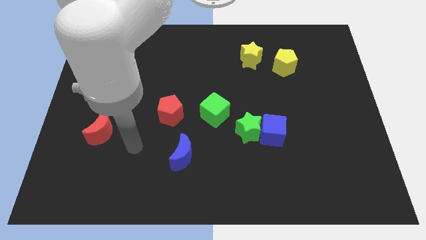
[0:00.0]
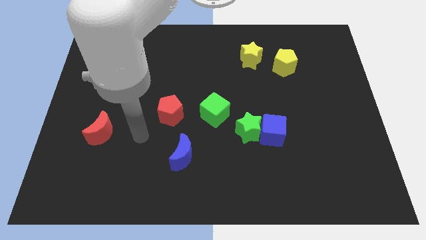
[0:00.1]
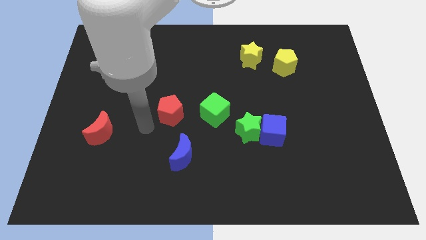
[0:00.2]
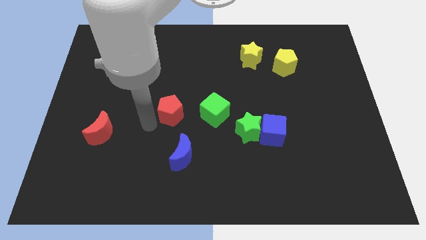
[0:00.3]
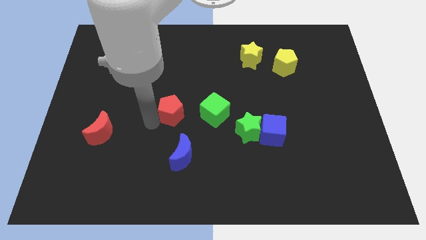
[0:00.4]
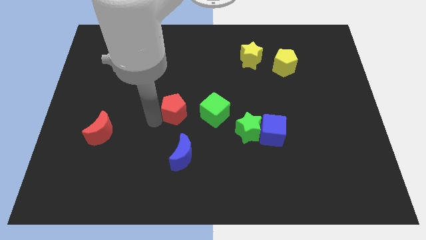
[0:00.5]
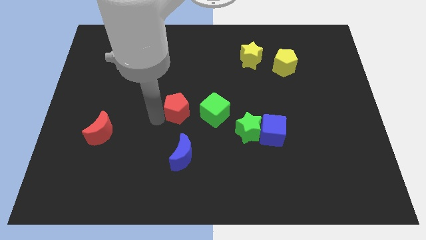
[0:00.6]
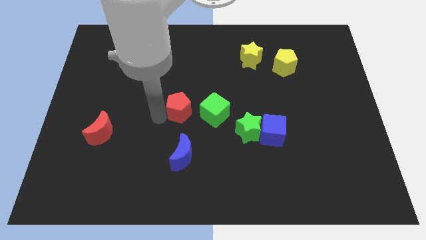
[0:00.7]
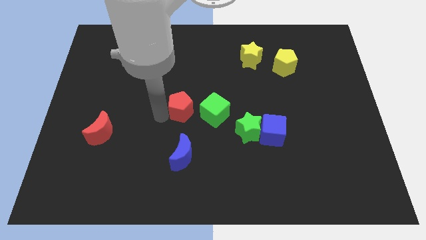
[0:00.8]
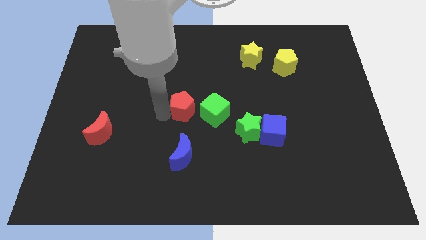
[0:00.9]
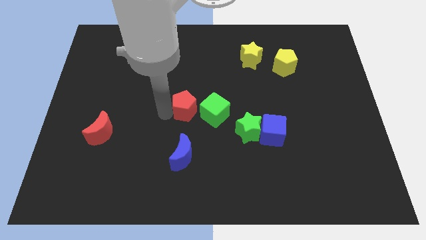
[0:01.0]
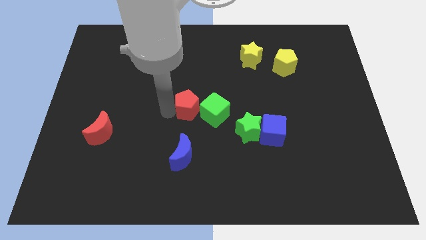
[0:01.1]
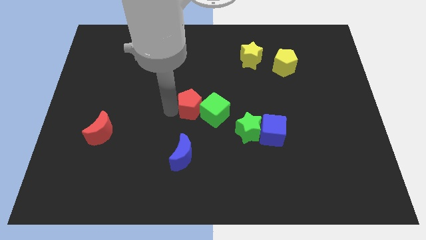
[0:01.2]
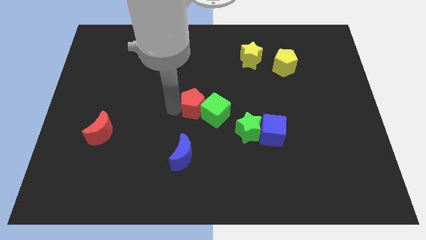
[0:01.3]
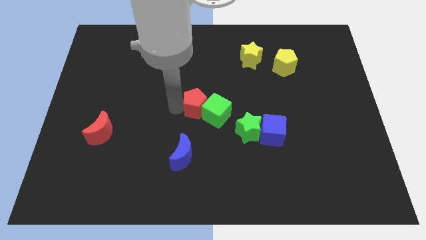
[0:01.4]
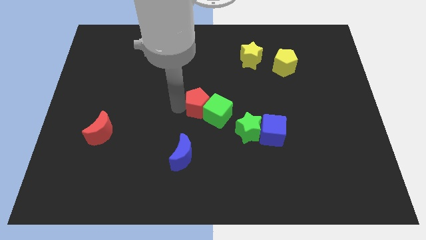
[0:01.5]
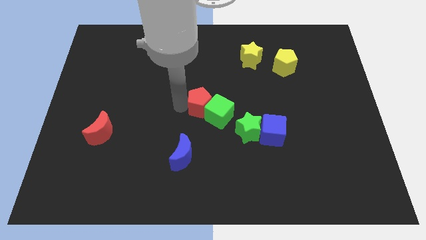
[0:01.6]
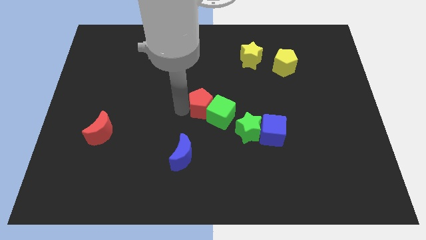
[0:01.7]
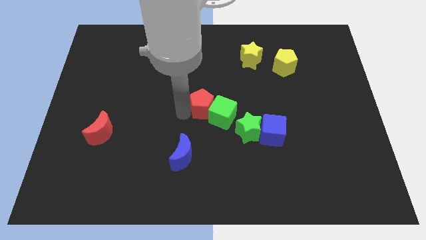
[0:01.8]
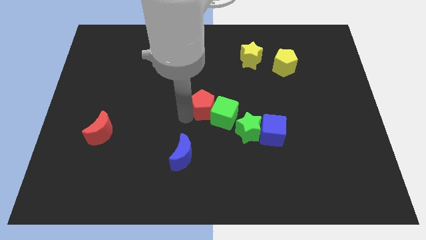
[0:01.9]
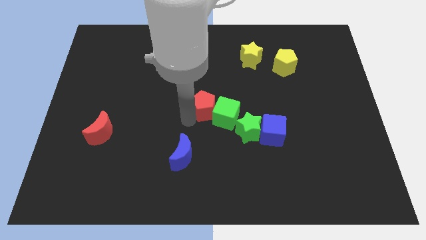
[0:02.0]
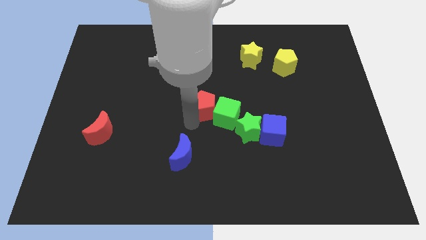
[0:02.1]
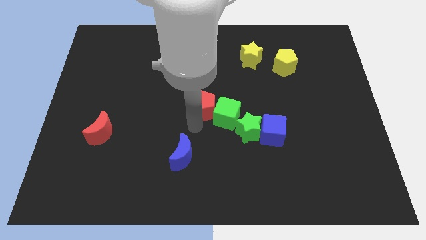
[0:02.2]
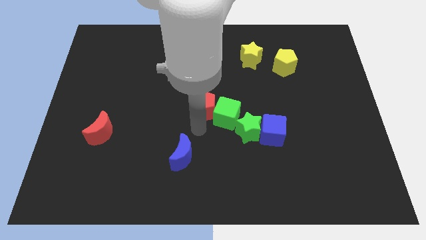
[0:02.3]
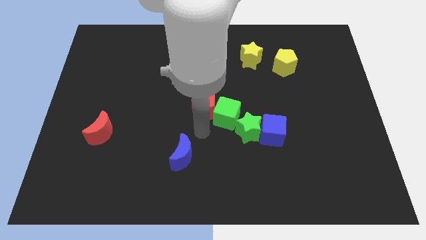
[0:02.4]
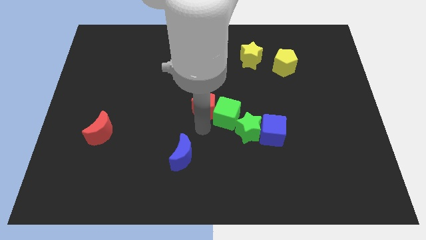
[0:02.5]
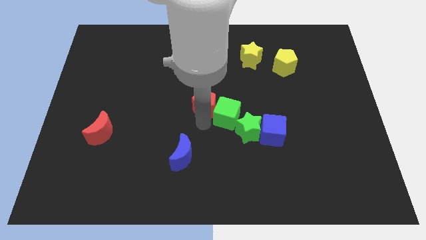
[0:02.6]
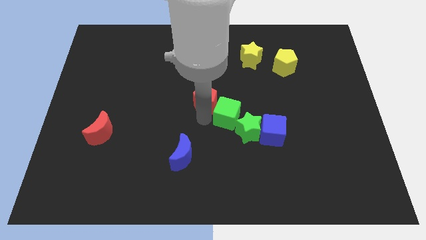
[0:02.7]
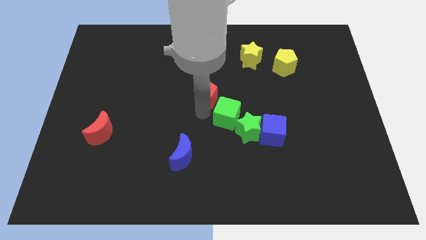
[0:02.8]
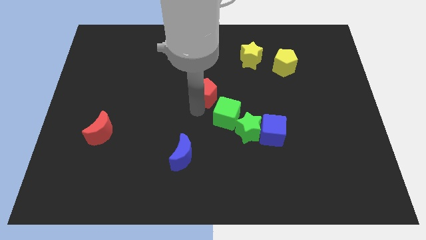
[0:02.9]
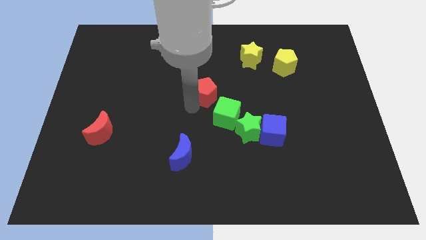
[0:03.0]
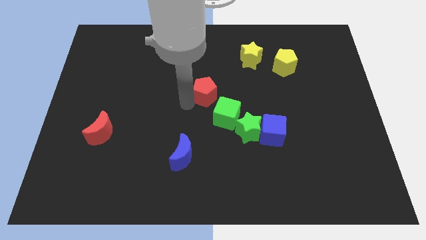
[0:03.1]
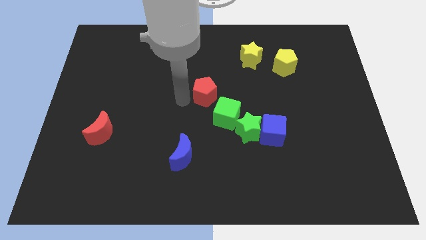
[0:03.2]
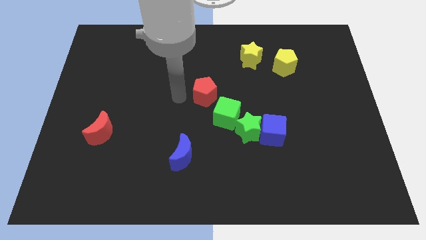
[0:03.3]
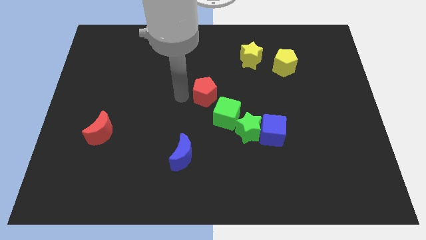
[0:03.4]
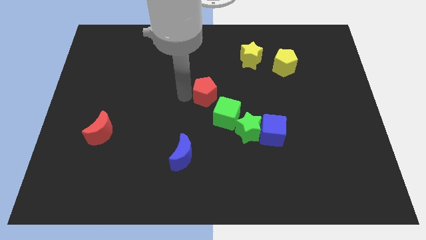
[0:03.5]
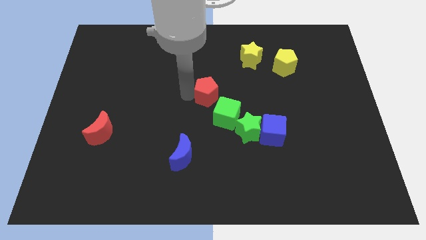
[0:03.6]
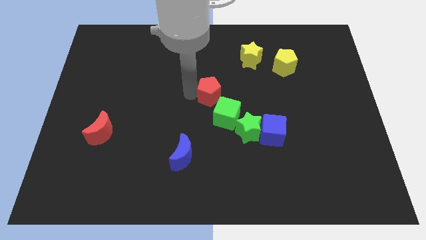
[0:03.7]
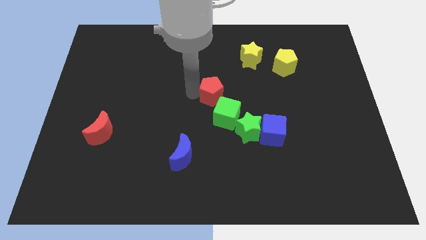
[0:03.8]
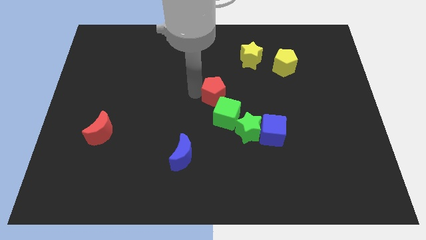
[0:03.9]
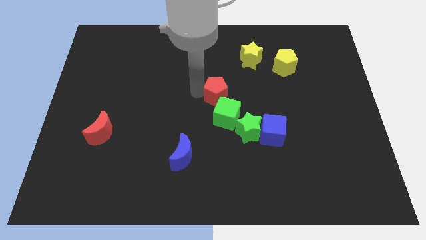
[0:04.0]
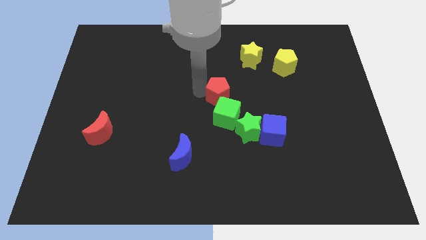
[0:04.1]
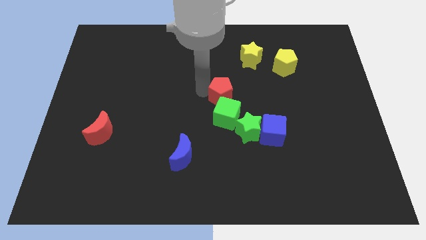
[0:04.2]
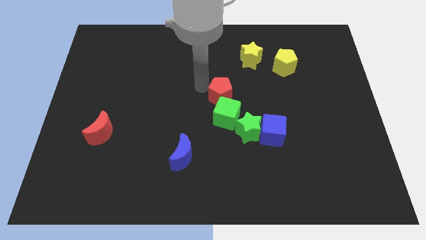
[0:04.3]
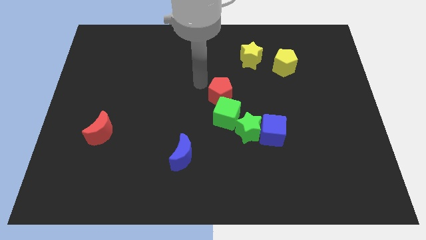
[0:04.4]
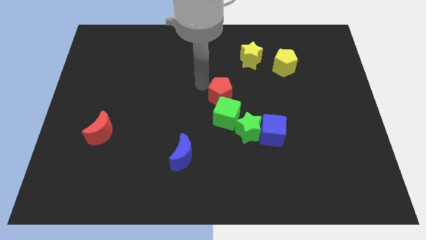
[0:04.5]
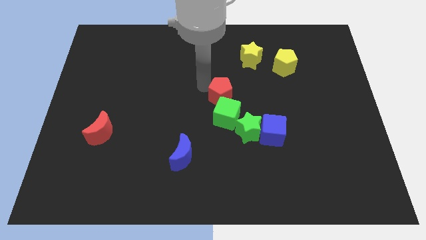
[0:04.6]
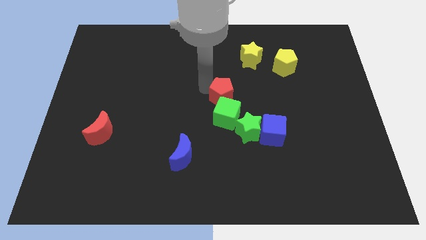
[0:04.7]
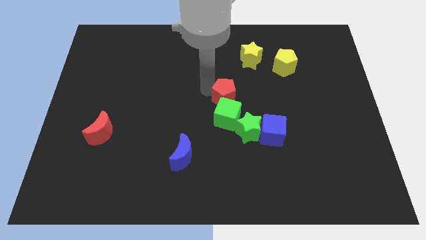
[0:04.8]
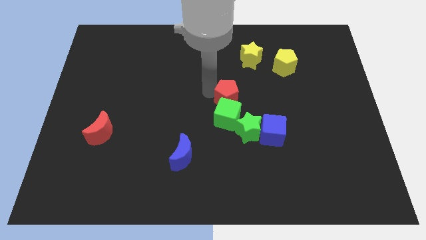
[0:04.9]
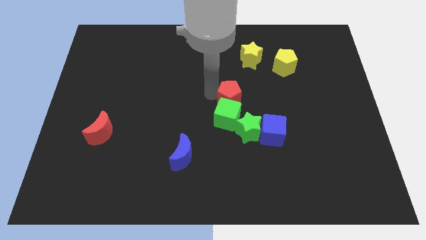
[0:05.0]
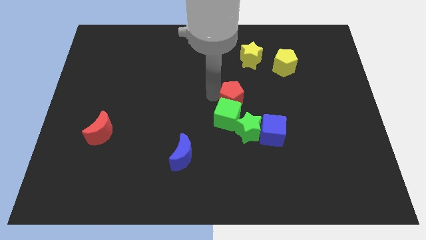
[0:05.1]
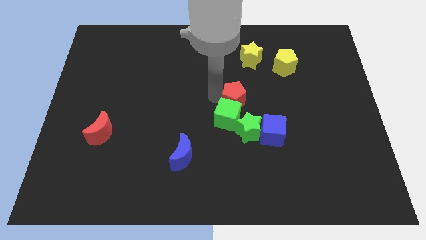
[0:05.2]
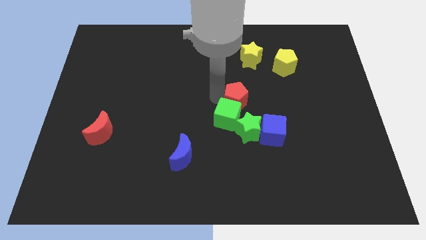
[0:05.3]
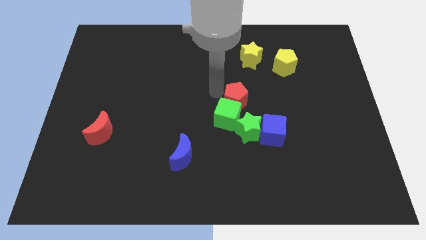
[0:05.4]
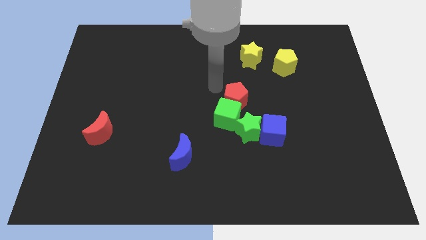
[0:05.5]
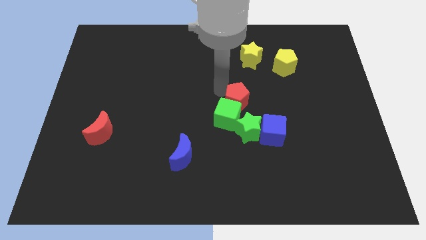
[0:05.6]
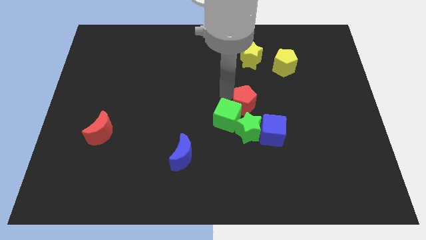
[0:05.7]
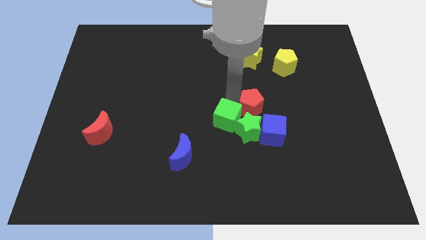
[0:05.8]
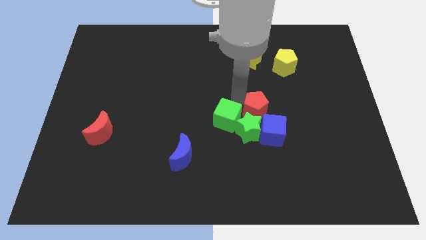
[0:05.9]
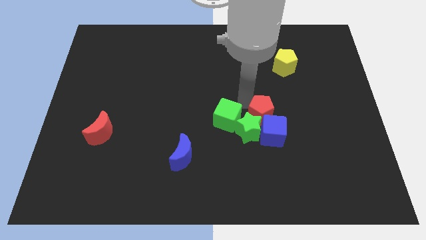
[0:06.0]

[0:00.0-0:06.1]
push the red pentagon next to the blue cube

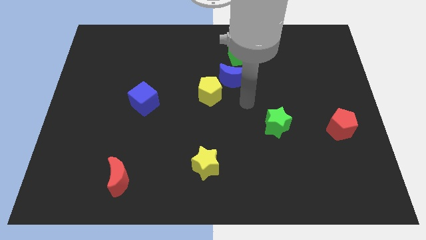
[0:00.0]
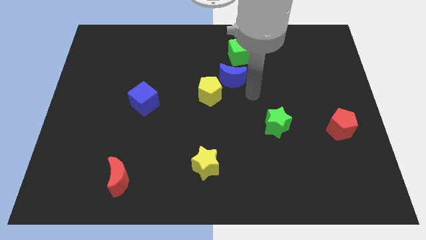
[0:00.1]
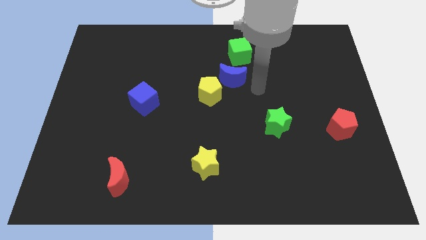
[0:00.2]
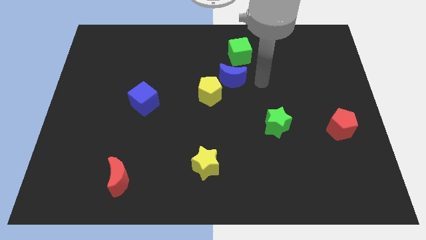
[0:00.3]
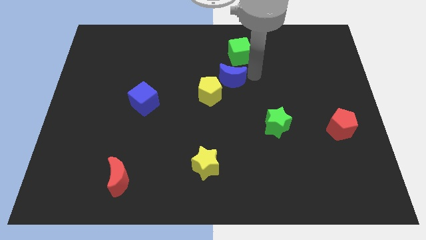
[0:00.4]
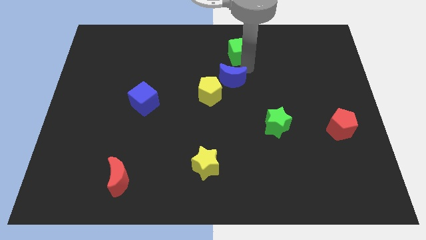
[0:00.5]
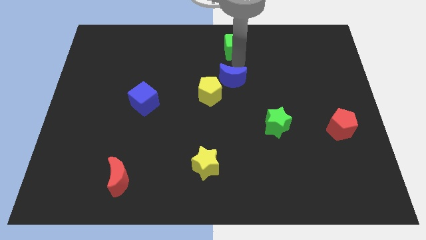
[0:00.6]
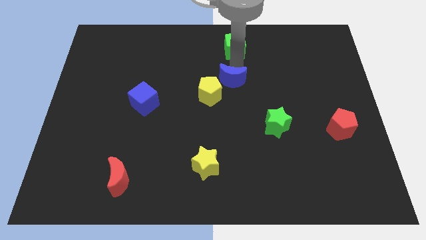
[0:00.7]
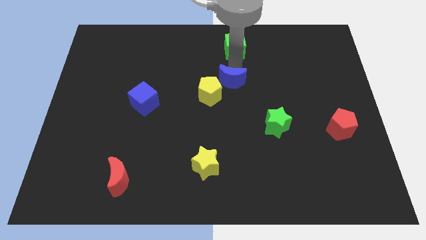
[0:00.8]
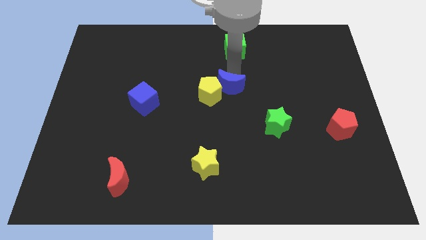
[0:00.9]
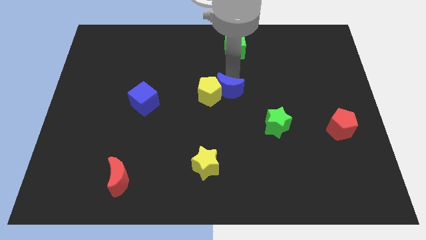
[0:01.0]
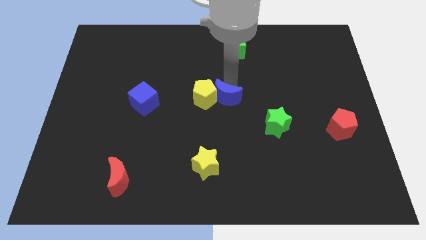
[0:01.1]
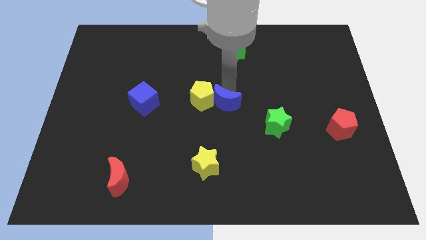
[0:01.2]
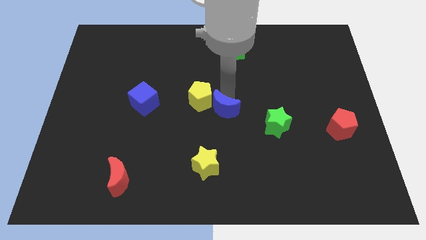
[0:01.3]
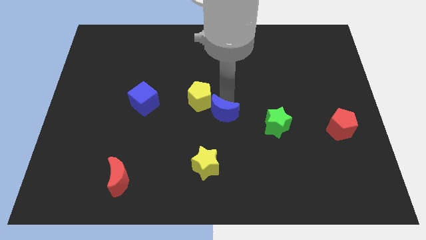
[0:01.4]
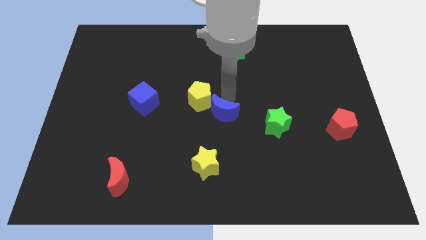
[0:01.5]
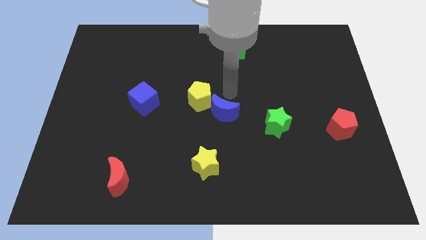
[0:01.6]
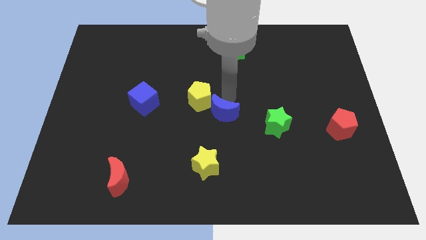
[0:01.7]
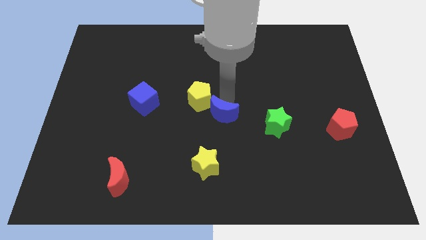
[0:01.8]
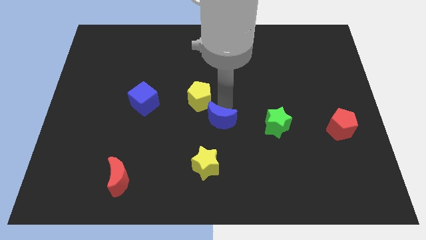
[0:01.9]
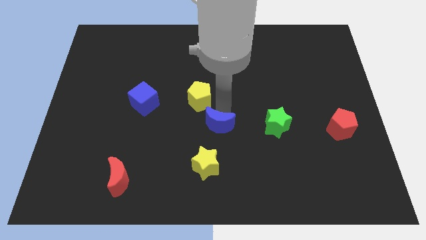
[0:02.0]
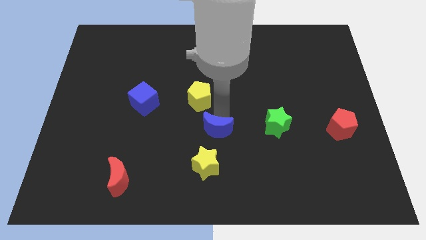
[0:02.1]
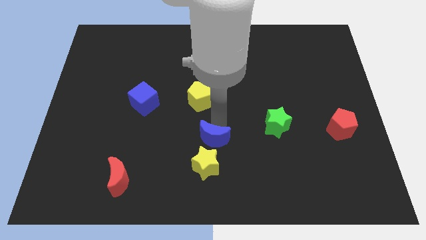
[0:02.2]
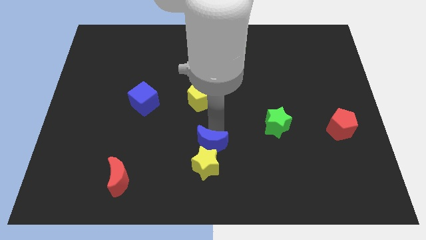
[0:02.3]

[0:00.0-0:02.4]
move the blue moon close to the yellow star
